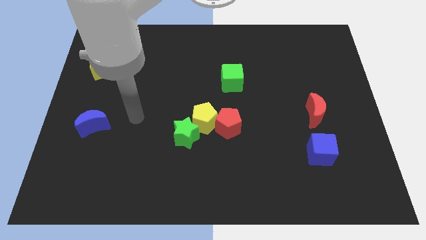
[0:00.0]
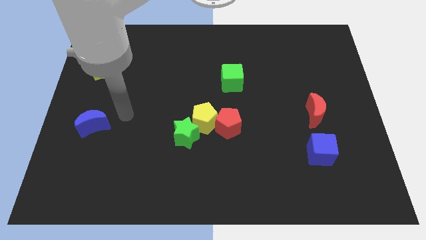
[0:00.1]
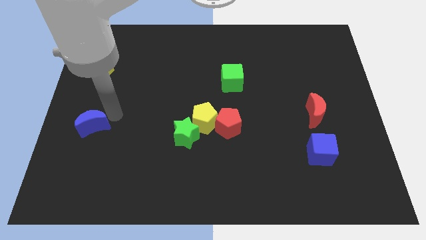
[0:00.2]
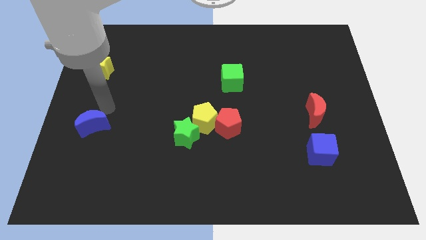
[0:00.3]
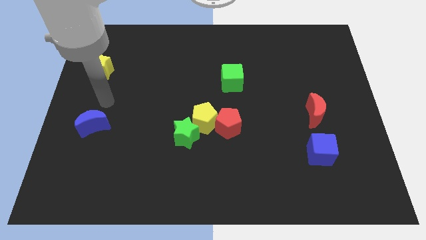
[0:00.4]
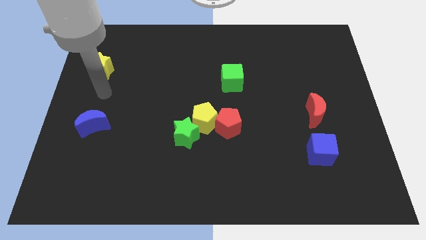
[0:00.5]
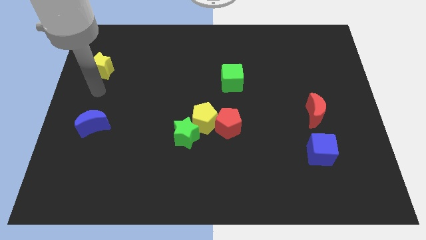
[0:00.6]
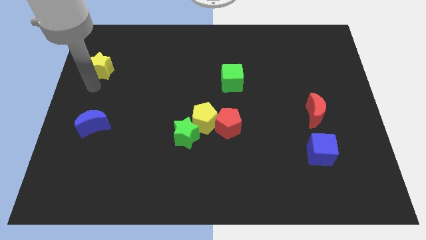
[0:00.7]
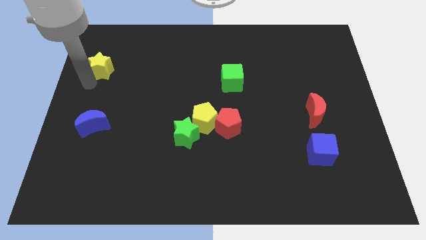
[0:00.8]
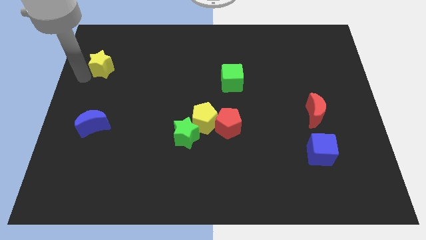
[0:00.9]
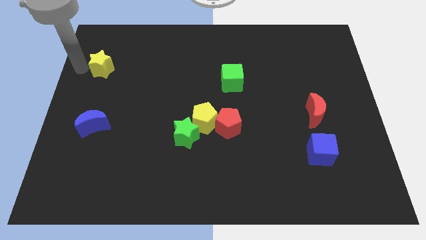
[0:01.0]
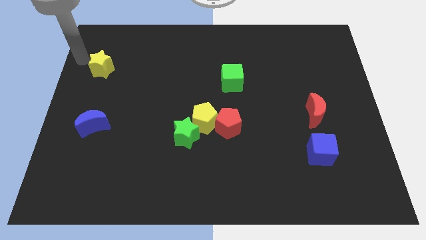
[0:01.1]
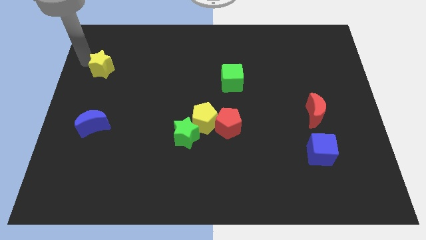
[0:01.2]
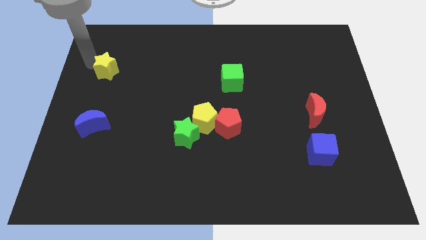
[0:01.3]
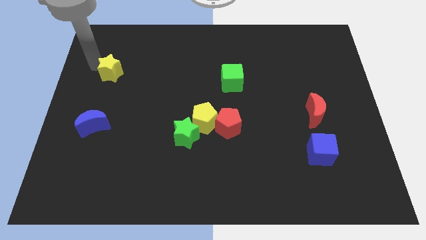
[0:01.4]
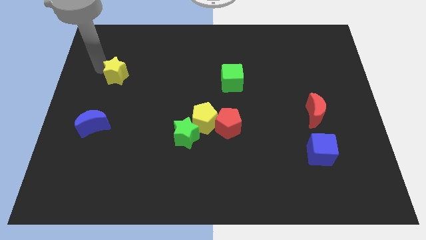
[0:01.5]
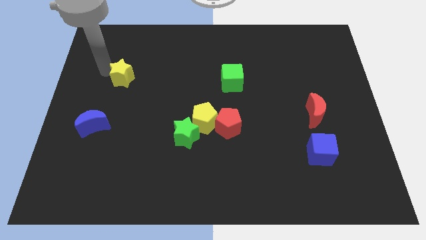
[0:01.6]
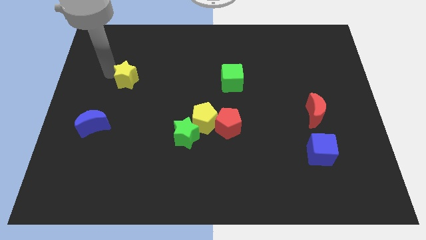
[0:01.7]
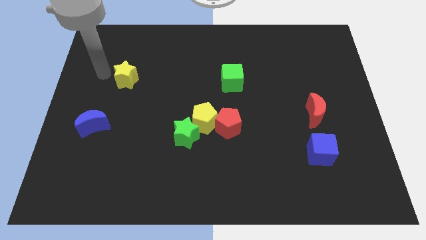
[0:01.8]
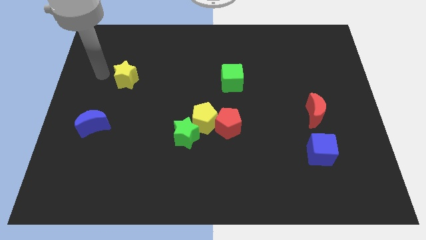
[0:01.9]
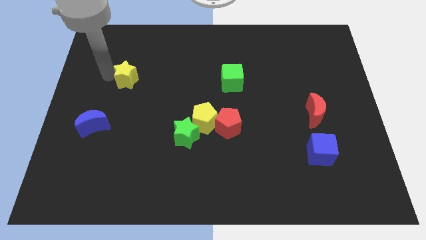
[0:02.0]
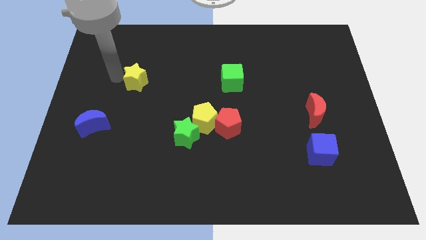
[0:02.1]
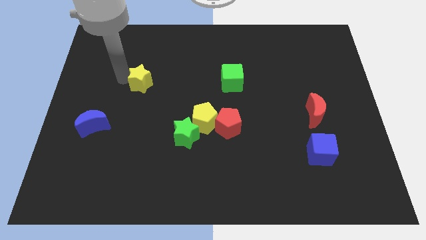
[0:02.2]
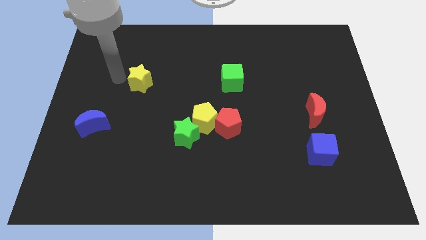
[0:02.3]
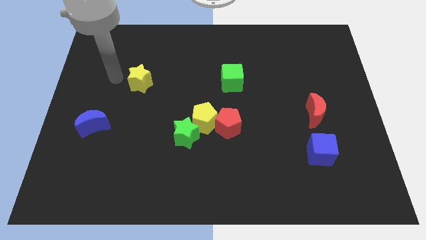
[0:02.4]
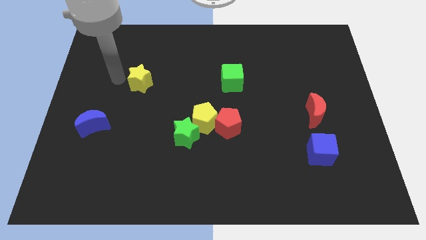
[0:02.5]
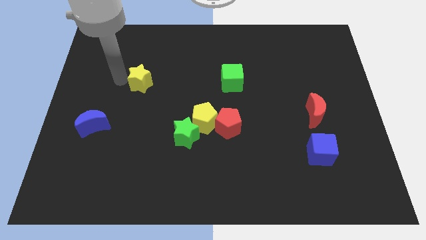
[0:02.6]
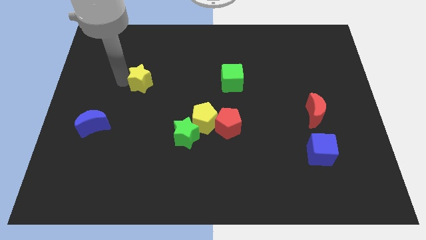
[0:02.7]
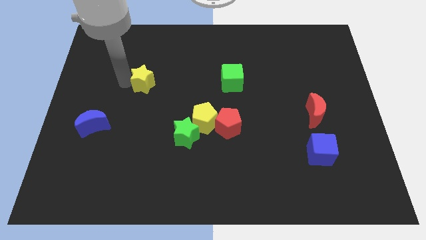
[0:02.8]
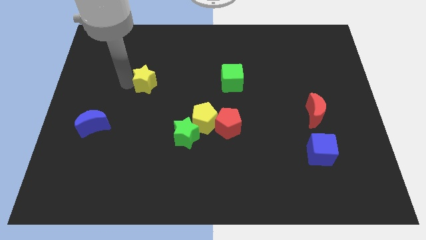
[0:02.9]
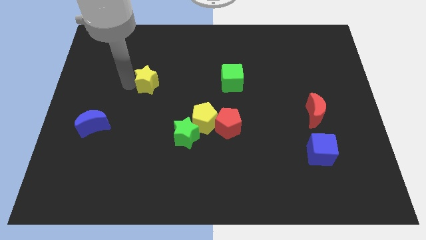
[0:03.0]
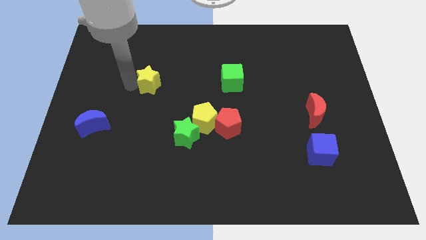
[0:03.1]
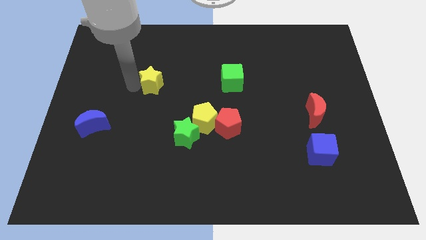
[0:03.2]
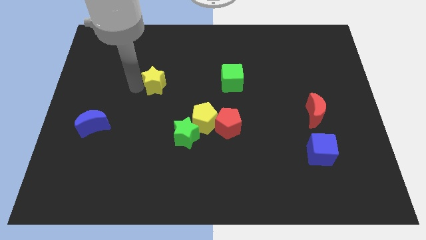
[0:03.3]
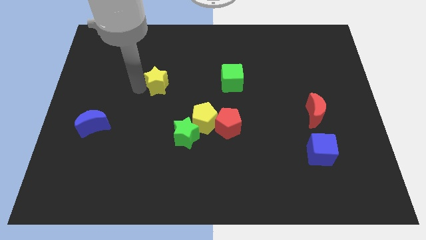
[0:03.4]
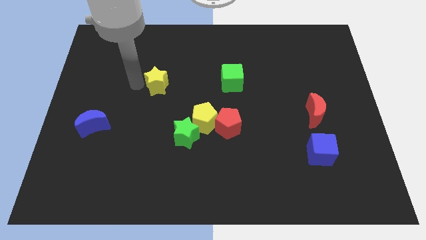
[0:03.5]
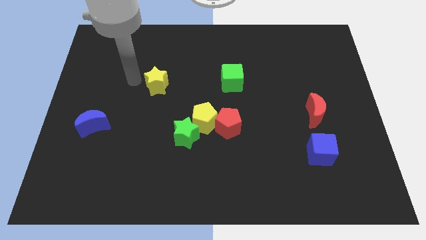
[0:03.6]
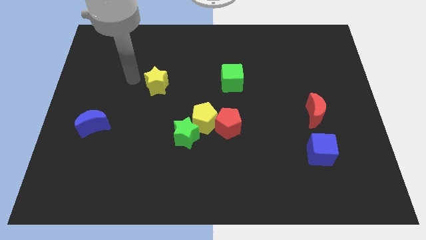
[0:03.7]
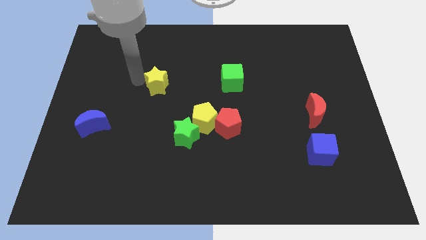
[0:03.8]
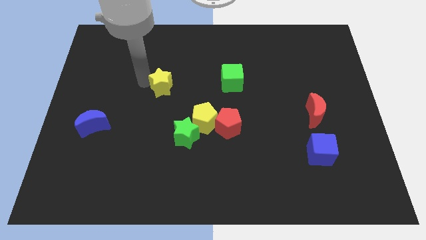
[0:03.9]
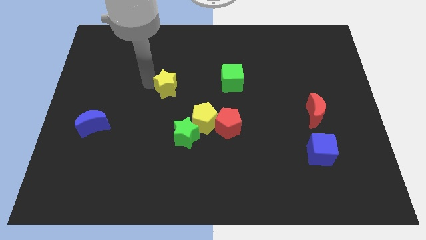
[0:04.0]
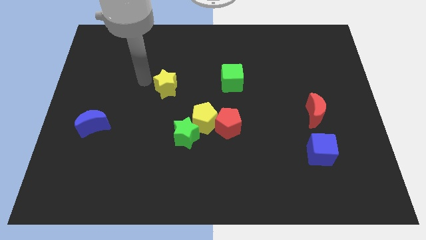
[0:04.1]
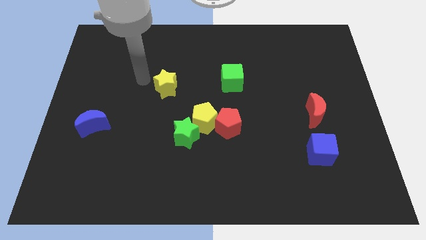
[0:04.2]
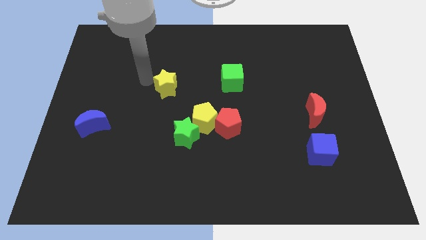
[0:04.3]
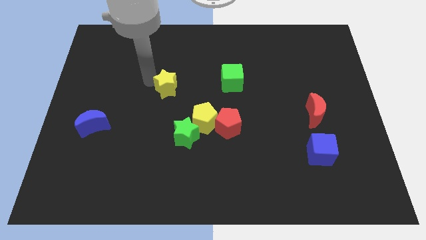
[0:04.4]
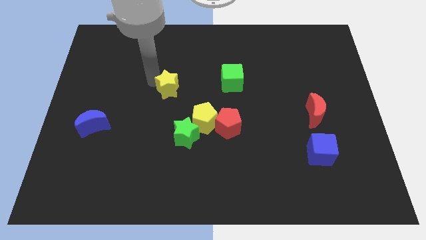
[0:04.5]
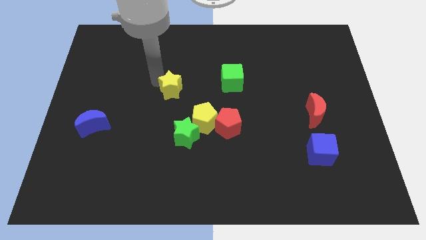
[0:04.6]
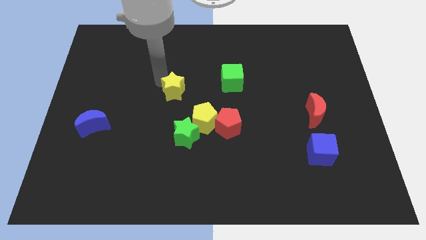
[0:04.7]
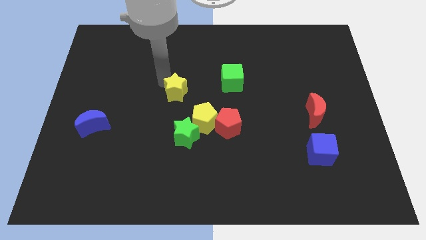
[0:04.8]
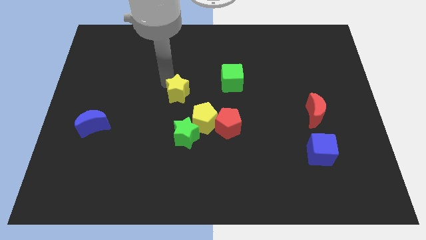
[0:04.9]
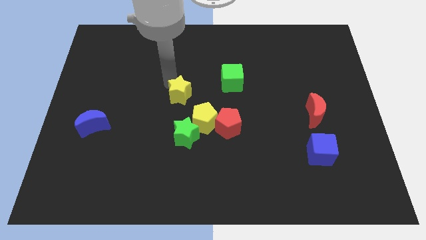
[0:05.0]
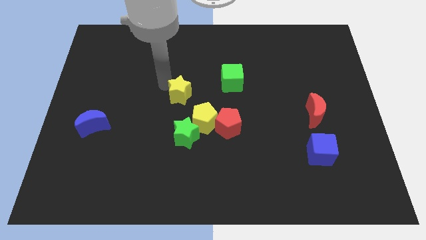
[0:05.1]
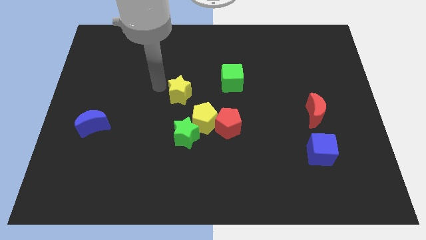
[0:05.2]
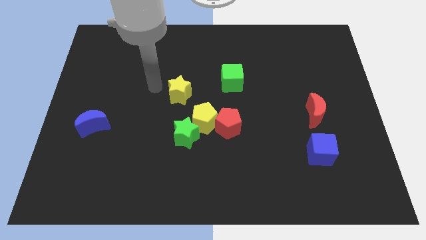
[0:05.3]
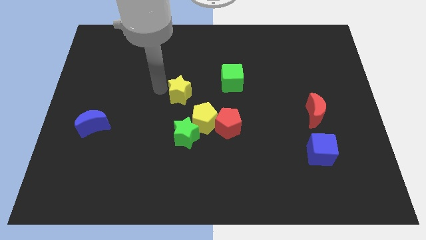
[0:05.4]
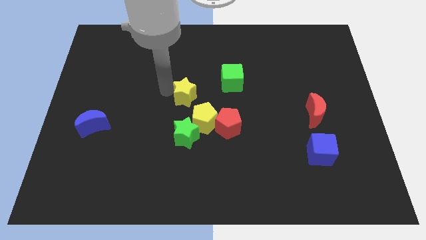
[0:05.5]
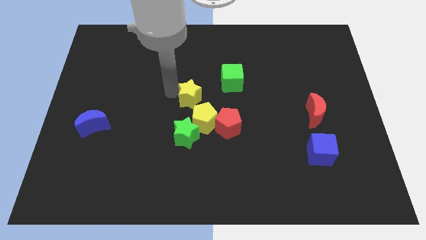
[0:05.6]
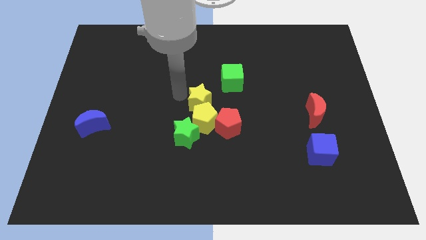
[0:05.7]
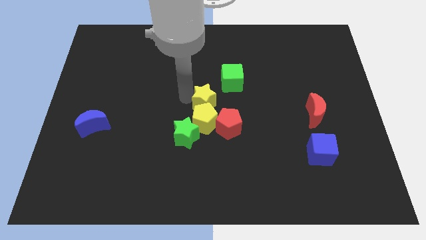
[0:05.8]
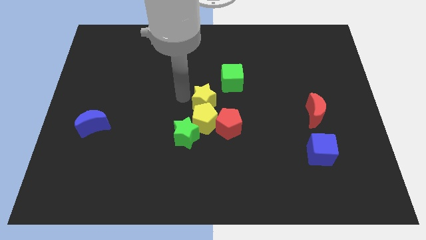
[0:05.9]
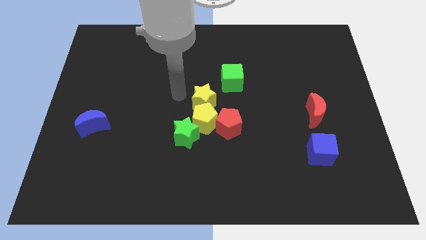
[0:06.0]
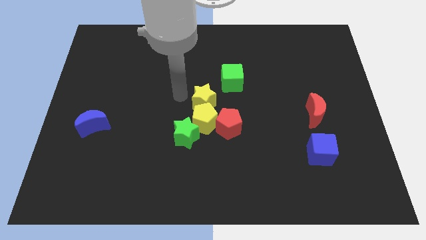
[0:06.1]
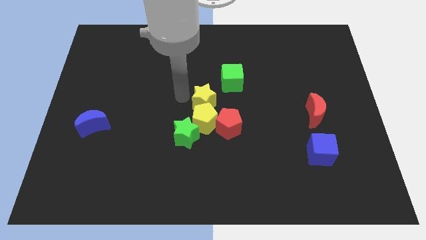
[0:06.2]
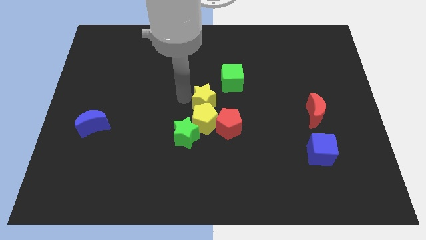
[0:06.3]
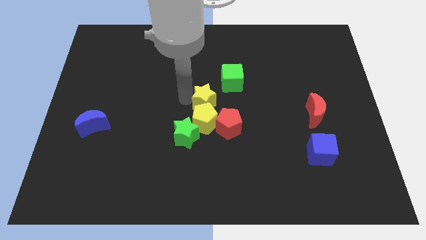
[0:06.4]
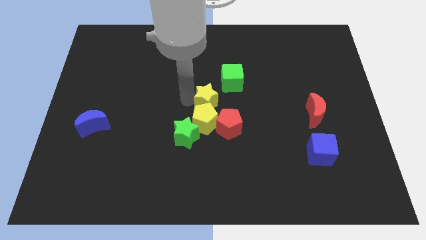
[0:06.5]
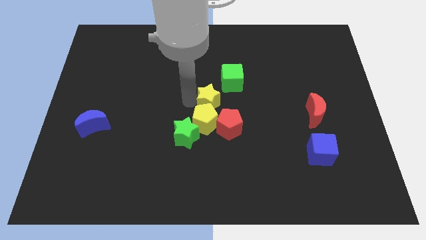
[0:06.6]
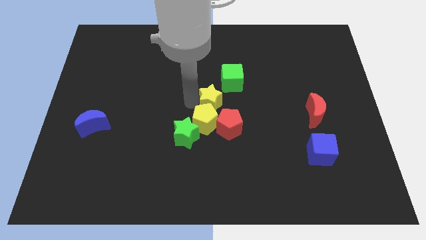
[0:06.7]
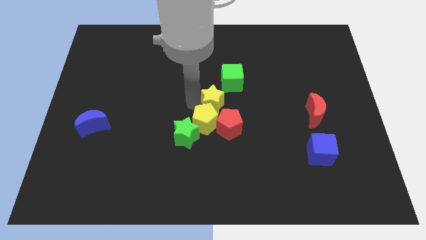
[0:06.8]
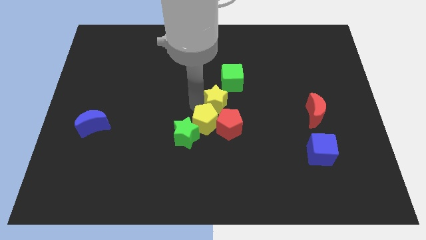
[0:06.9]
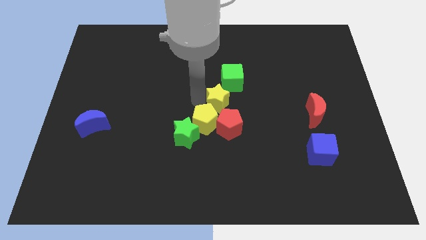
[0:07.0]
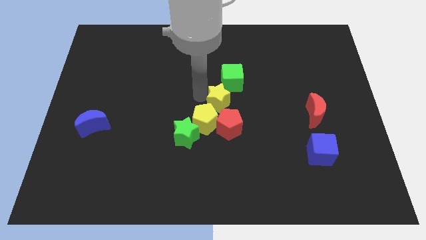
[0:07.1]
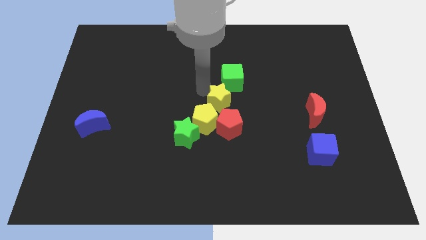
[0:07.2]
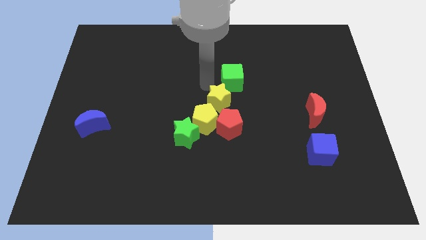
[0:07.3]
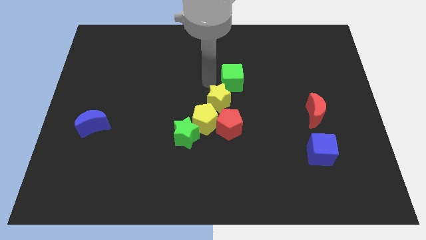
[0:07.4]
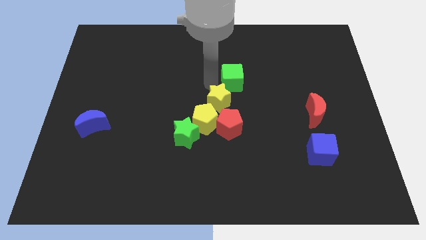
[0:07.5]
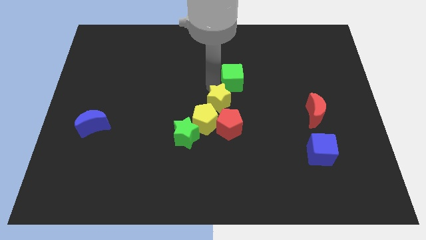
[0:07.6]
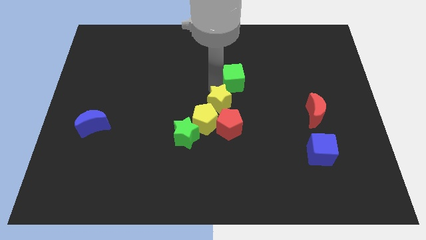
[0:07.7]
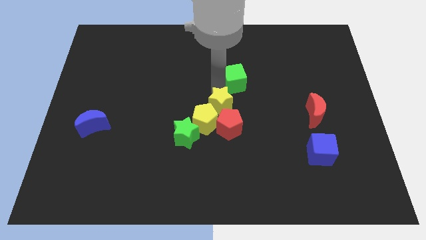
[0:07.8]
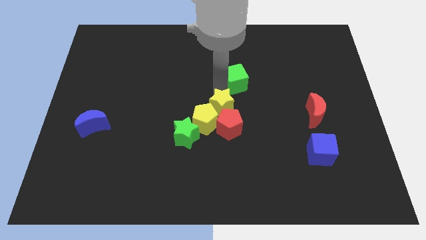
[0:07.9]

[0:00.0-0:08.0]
move the yellow star to the red pentagon
